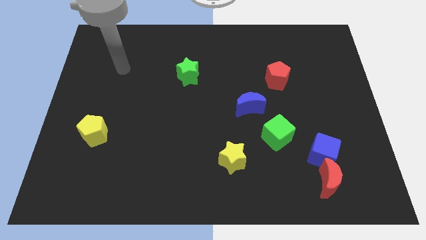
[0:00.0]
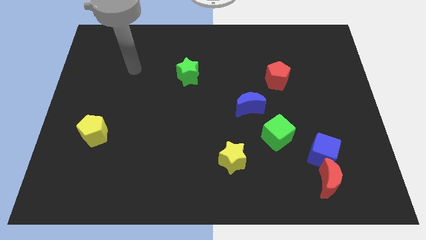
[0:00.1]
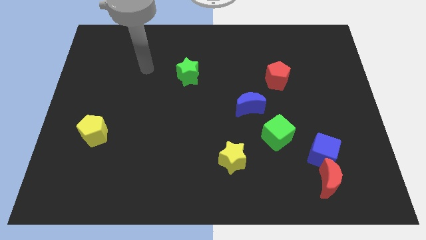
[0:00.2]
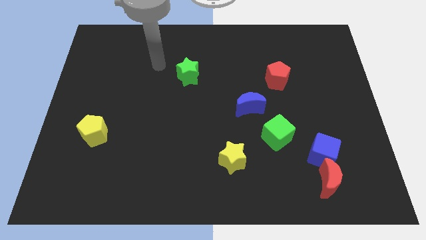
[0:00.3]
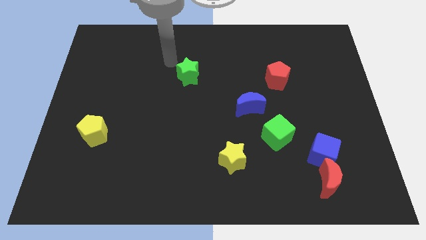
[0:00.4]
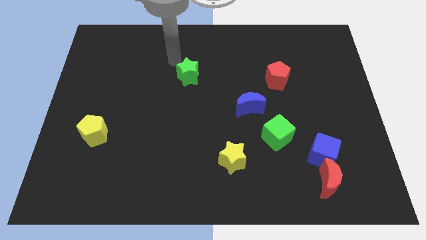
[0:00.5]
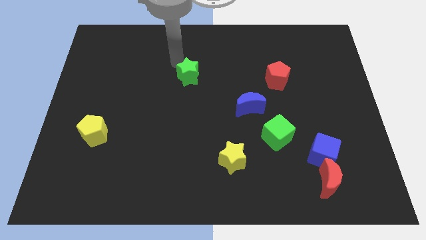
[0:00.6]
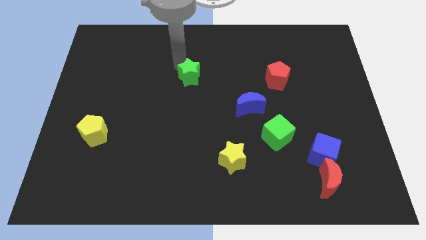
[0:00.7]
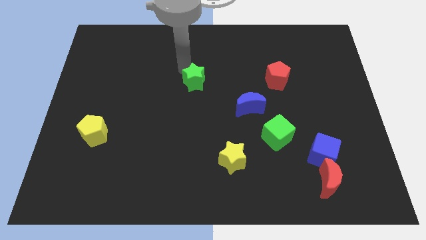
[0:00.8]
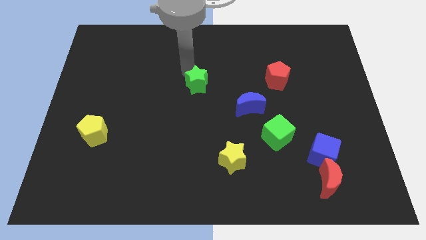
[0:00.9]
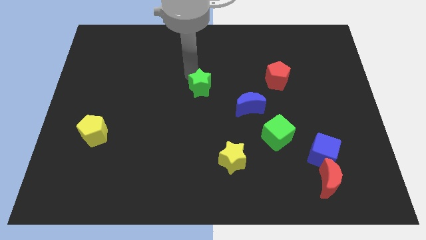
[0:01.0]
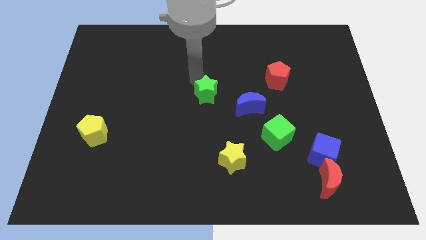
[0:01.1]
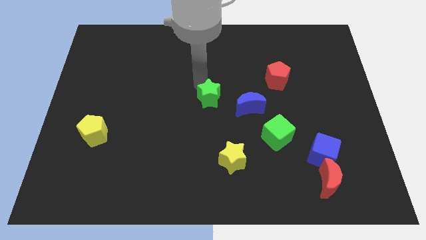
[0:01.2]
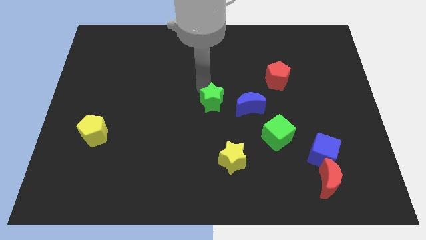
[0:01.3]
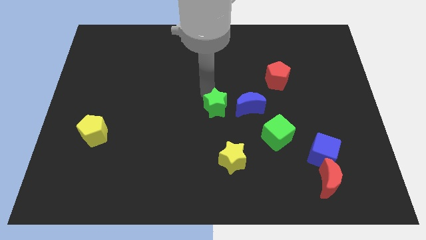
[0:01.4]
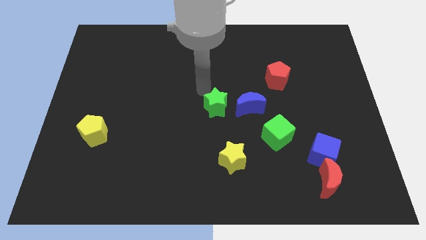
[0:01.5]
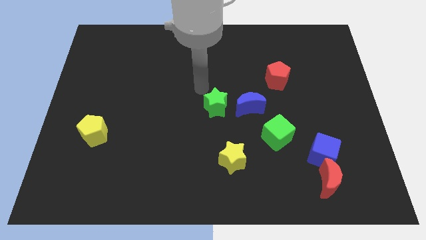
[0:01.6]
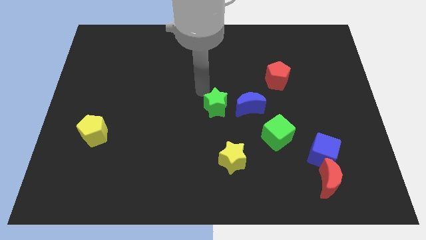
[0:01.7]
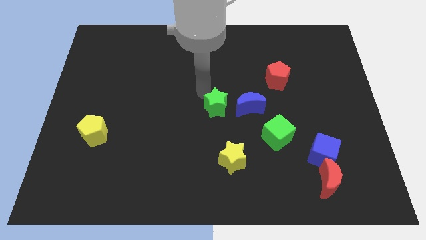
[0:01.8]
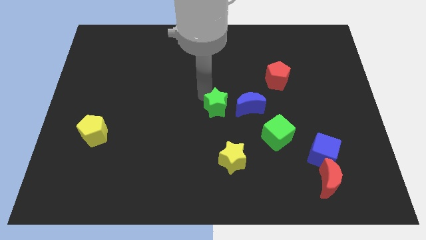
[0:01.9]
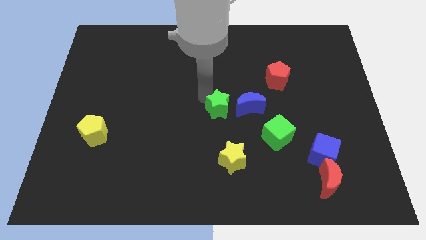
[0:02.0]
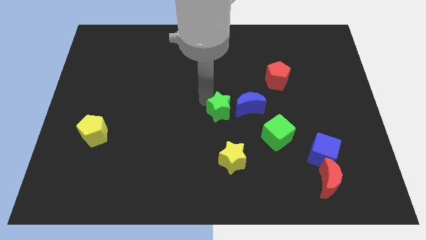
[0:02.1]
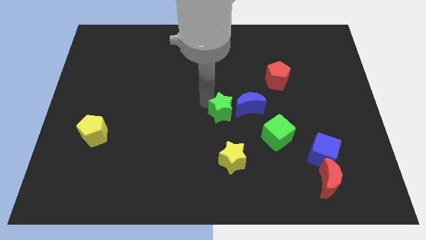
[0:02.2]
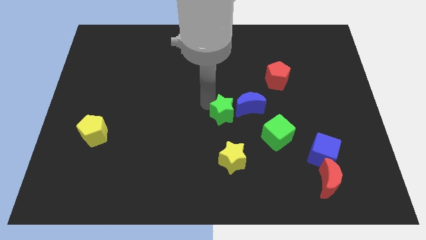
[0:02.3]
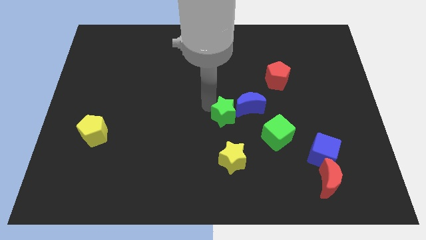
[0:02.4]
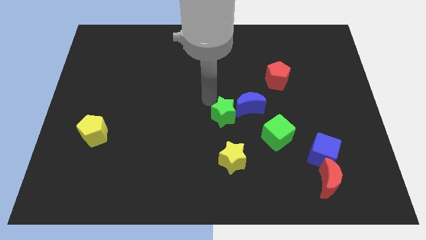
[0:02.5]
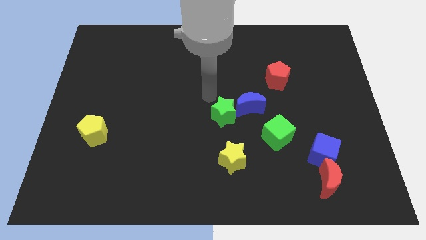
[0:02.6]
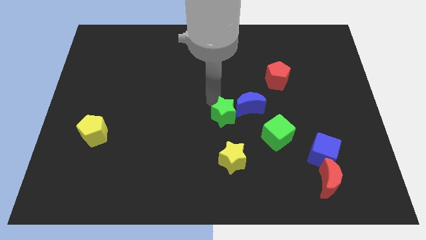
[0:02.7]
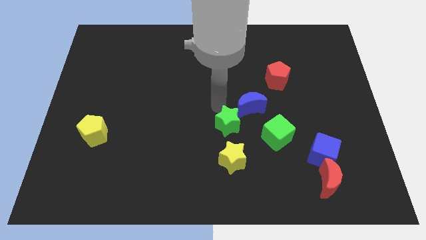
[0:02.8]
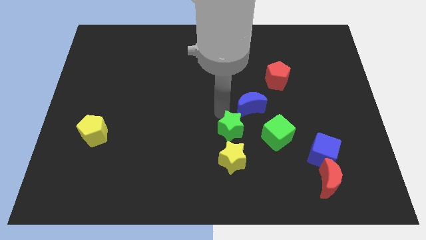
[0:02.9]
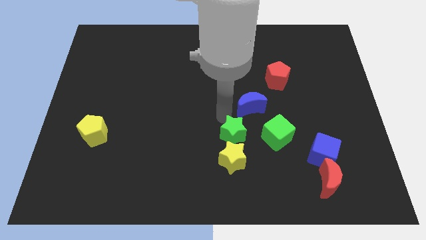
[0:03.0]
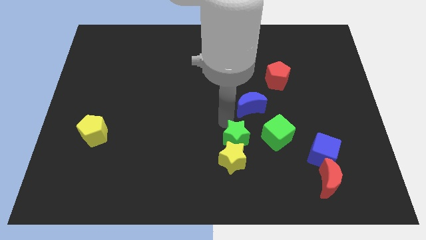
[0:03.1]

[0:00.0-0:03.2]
slide the green star downwards and then to the right

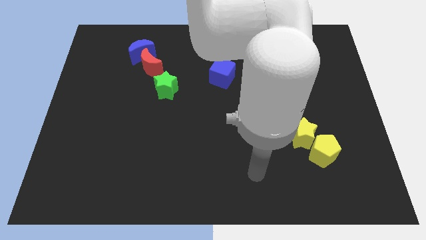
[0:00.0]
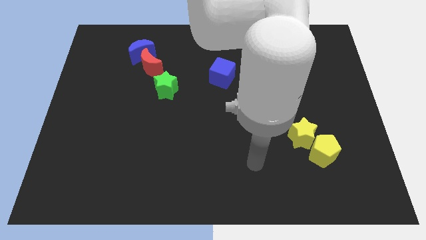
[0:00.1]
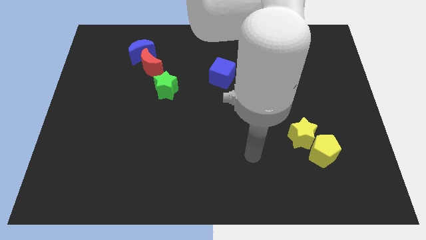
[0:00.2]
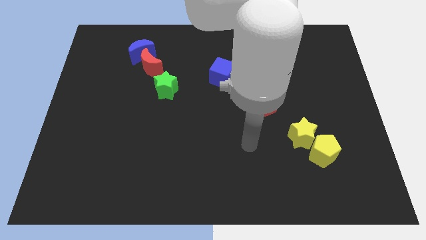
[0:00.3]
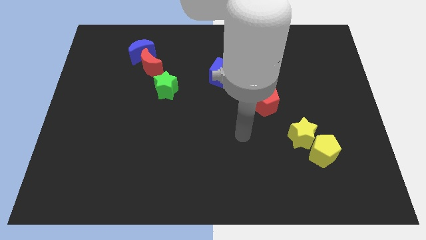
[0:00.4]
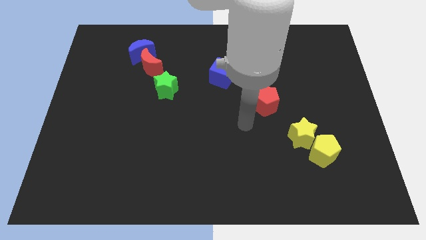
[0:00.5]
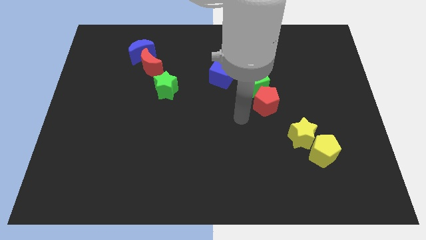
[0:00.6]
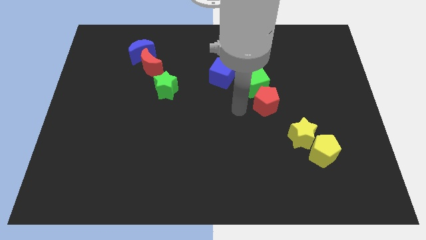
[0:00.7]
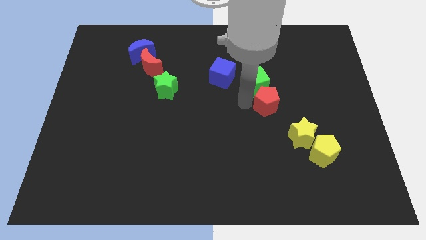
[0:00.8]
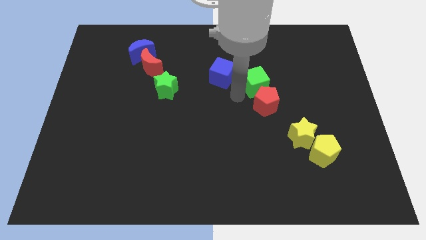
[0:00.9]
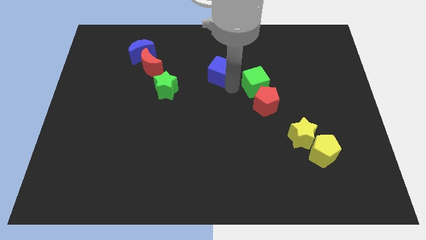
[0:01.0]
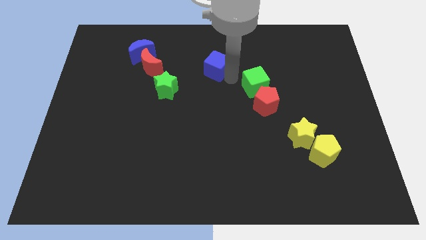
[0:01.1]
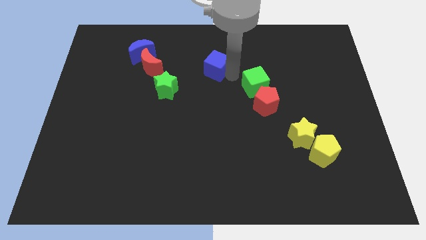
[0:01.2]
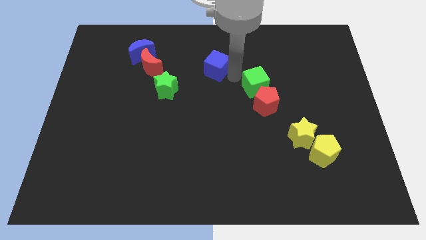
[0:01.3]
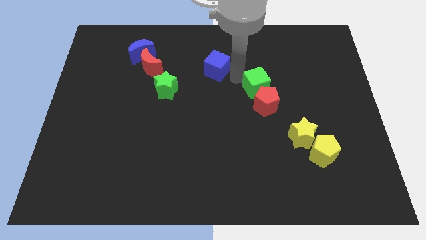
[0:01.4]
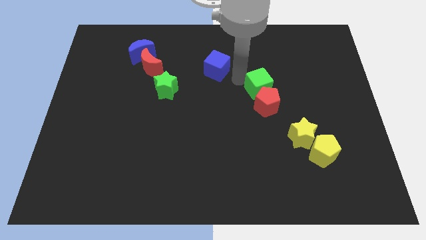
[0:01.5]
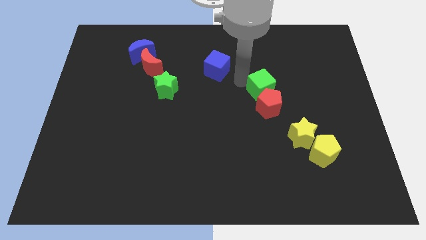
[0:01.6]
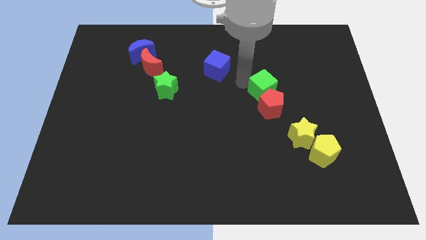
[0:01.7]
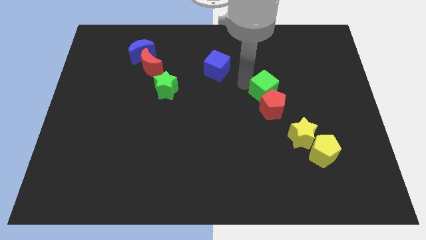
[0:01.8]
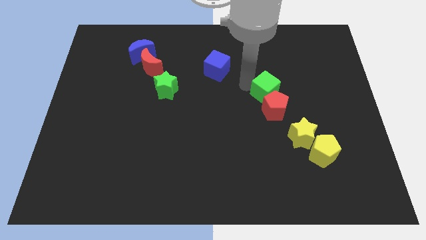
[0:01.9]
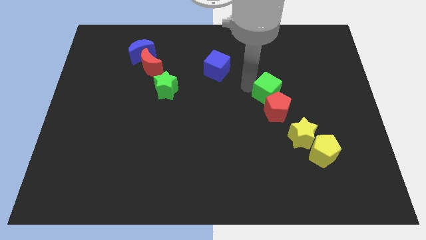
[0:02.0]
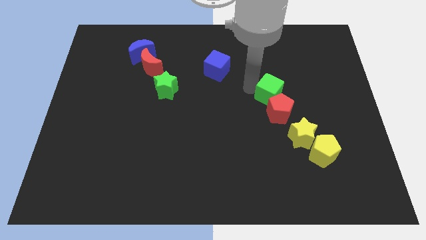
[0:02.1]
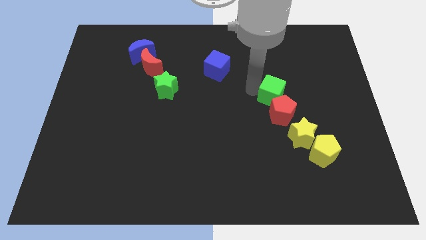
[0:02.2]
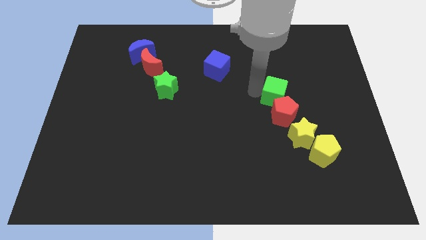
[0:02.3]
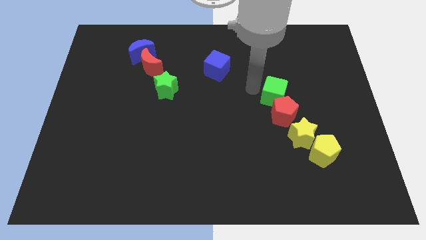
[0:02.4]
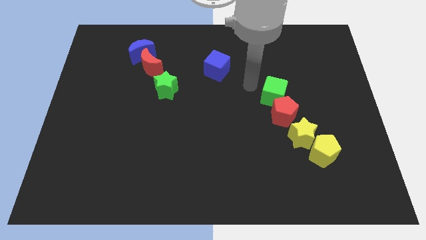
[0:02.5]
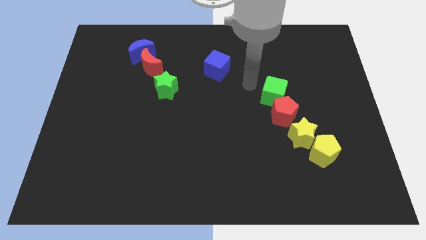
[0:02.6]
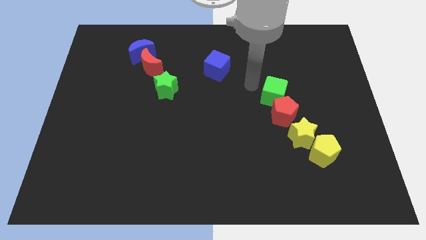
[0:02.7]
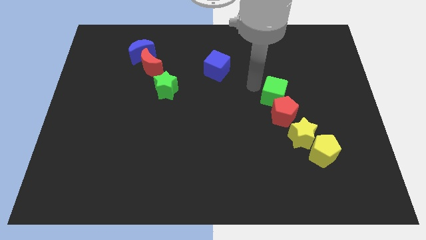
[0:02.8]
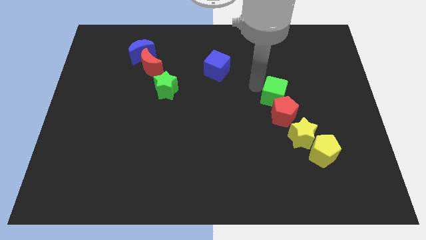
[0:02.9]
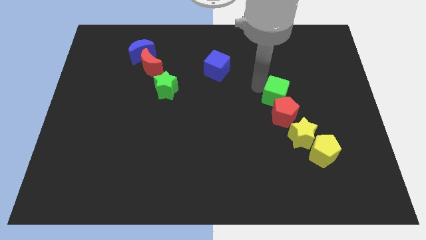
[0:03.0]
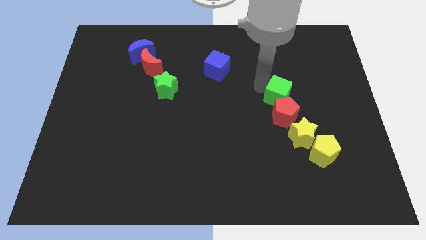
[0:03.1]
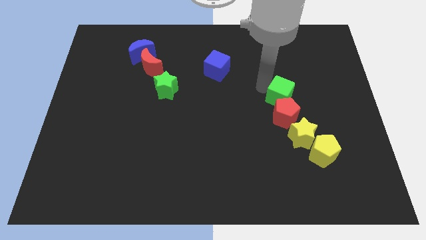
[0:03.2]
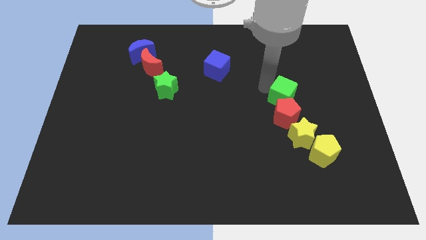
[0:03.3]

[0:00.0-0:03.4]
slightly move the green cube down and right

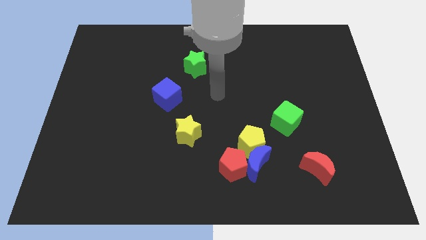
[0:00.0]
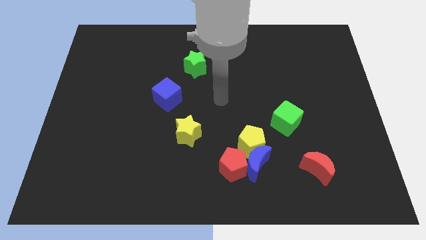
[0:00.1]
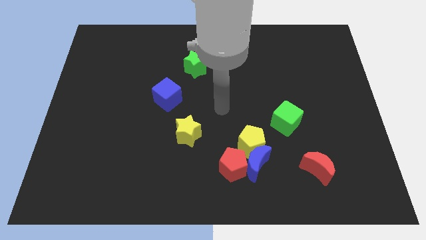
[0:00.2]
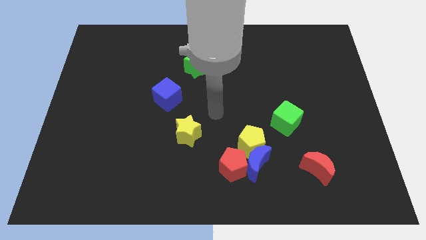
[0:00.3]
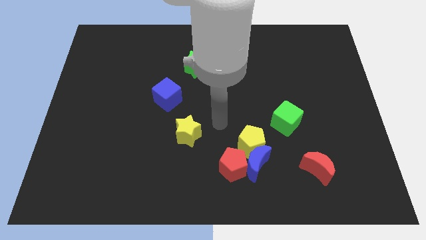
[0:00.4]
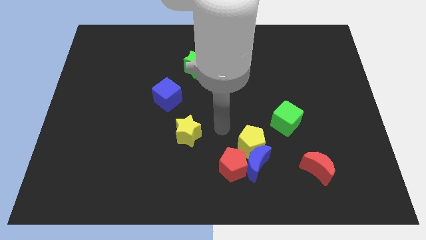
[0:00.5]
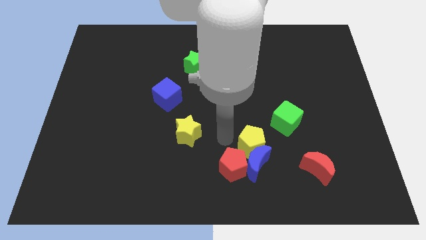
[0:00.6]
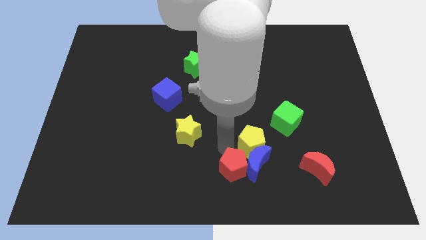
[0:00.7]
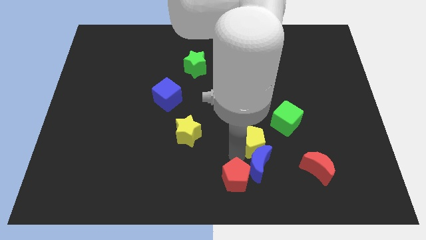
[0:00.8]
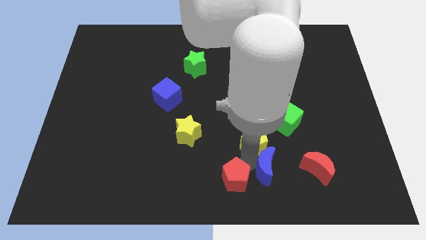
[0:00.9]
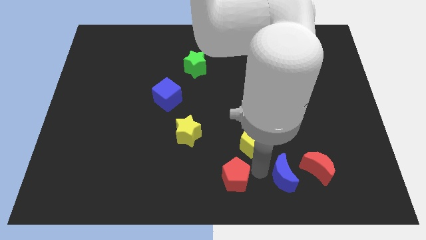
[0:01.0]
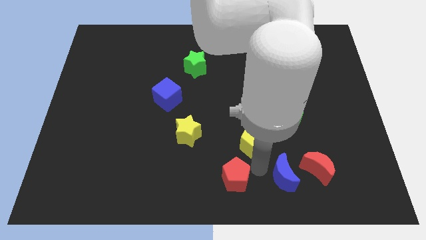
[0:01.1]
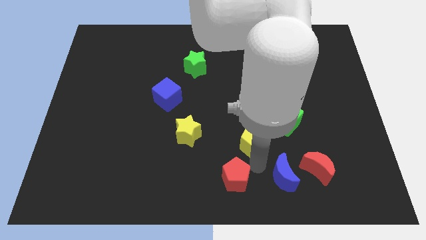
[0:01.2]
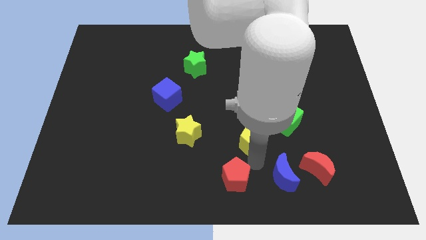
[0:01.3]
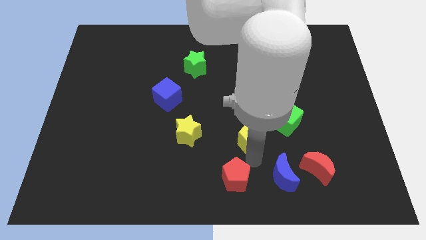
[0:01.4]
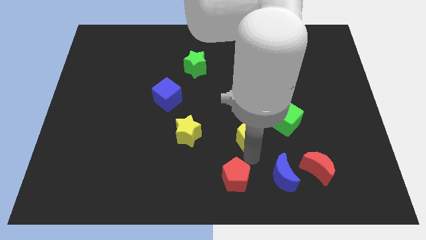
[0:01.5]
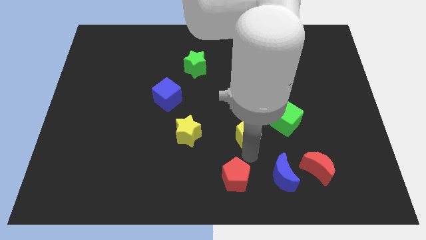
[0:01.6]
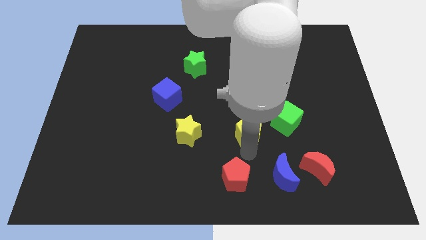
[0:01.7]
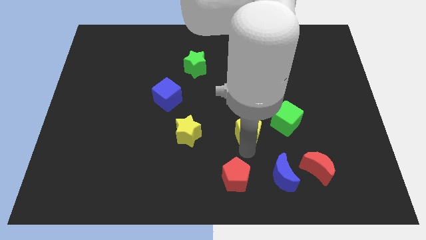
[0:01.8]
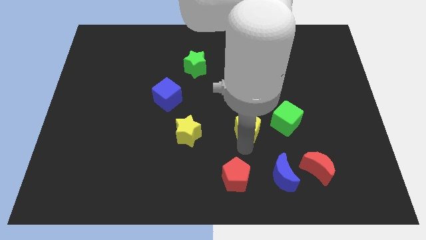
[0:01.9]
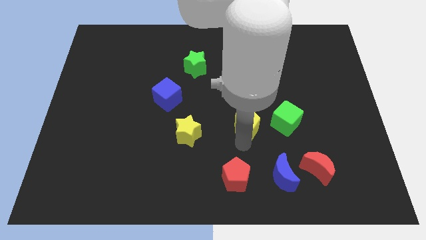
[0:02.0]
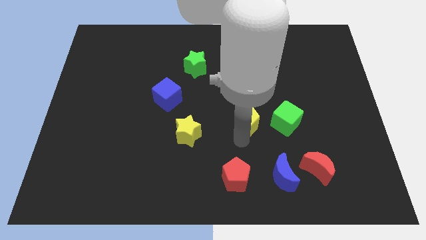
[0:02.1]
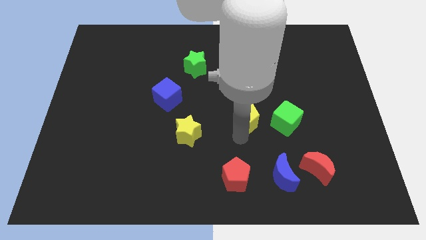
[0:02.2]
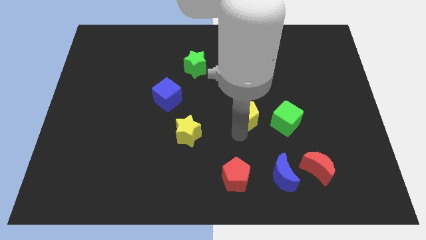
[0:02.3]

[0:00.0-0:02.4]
slide the yellow pentagon slightly up
